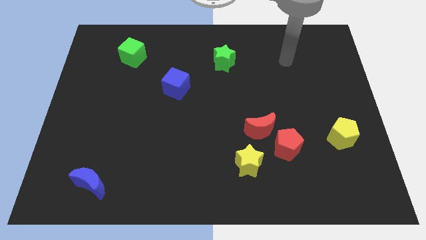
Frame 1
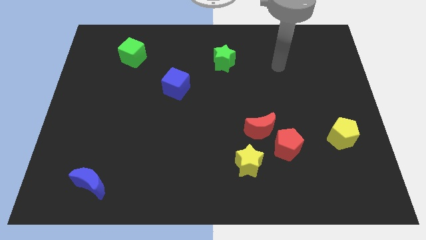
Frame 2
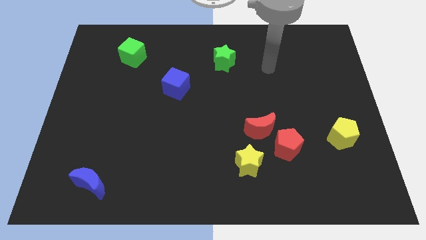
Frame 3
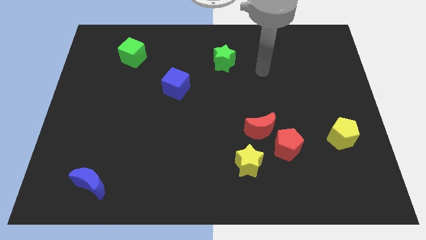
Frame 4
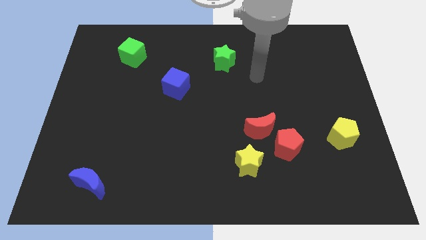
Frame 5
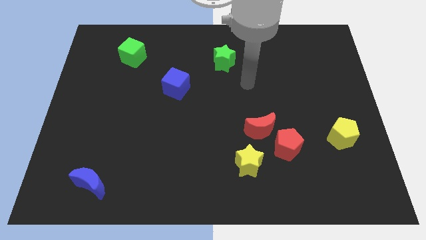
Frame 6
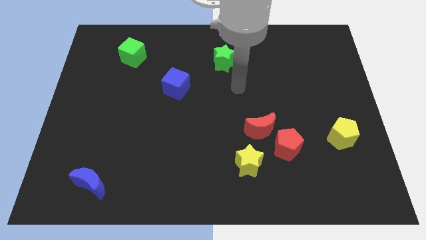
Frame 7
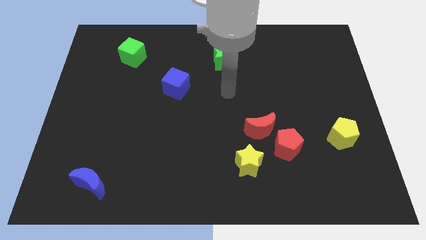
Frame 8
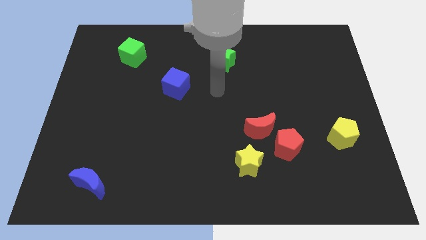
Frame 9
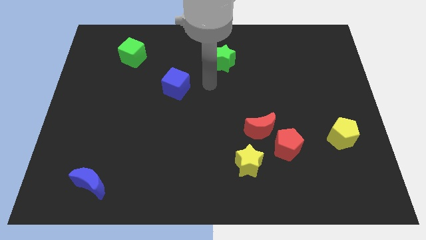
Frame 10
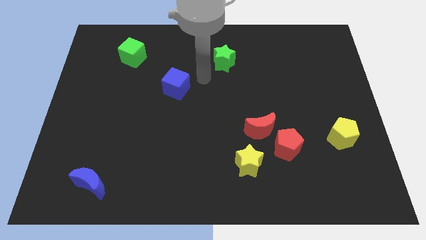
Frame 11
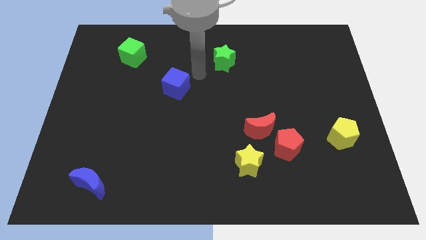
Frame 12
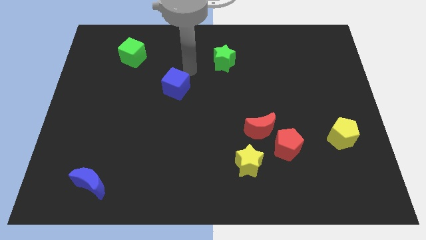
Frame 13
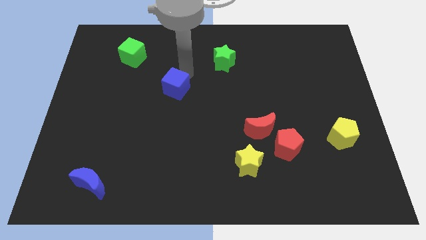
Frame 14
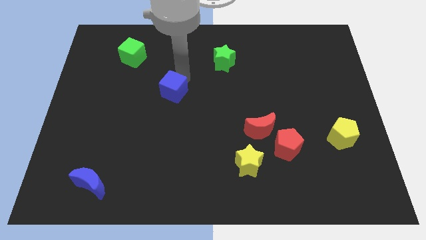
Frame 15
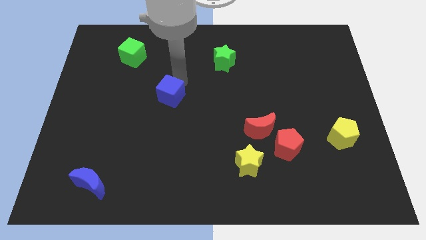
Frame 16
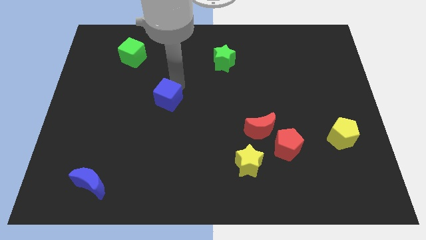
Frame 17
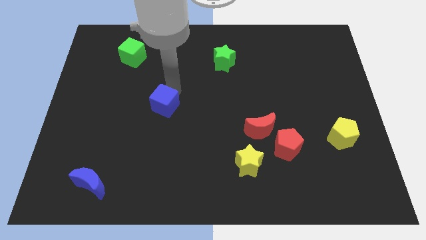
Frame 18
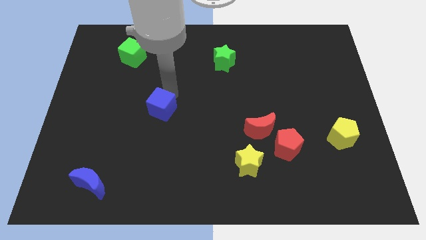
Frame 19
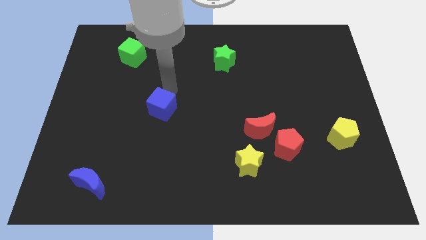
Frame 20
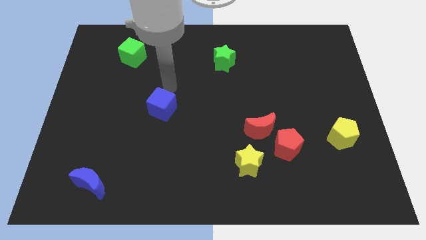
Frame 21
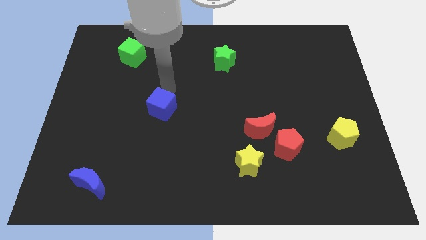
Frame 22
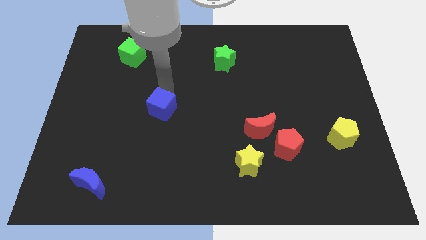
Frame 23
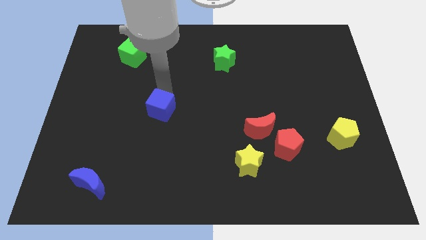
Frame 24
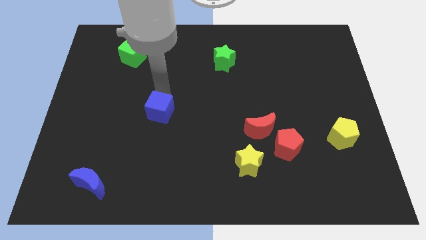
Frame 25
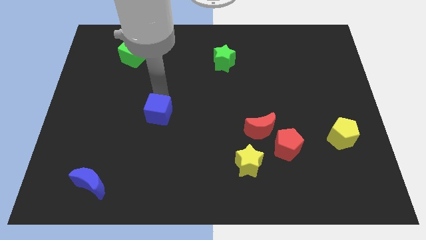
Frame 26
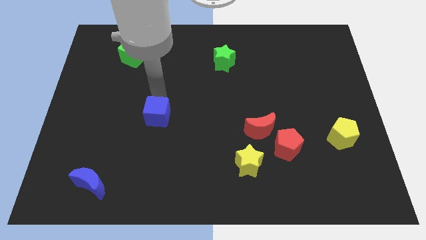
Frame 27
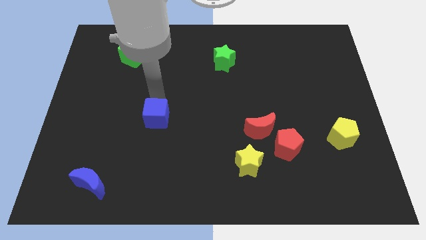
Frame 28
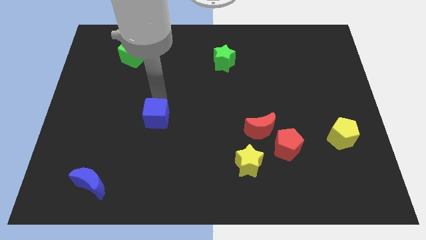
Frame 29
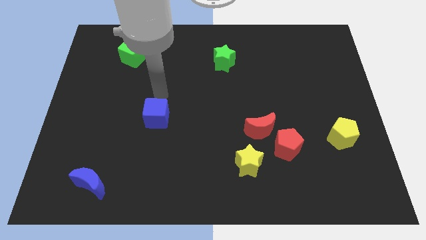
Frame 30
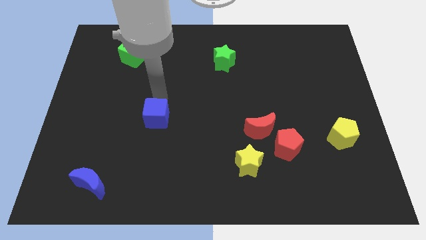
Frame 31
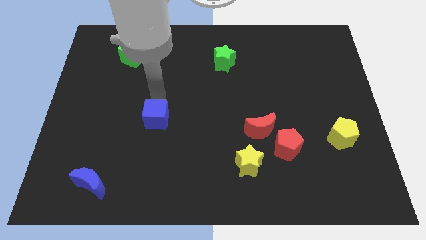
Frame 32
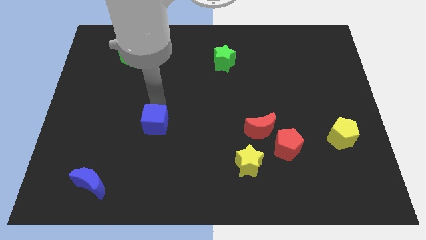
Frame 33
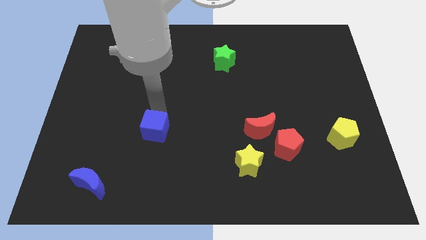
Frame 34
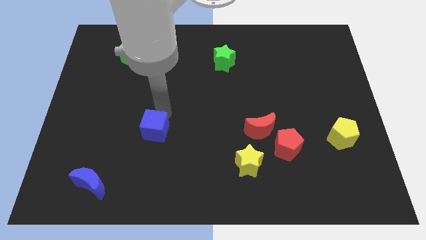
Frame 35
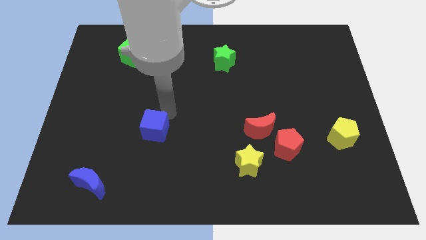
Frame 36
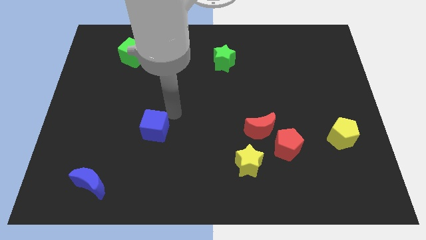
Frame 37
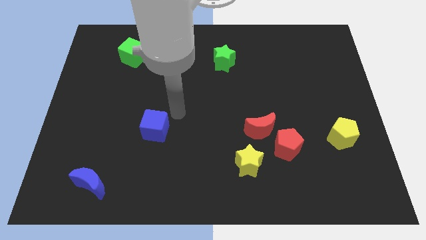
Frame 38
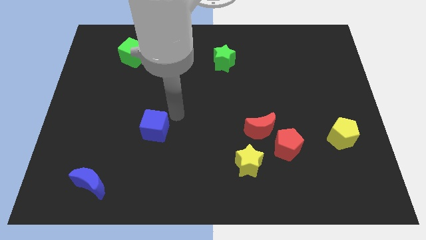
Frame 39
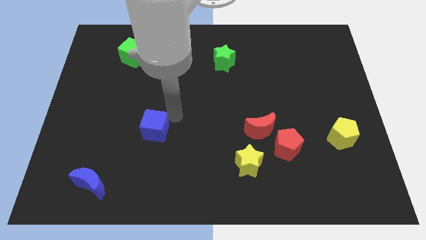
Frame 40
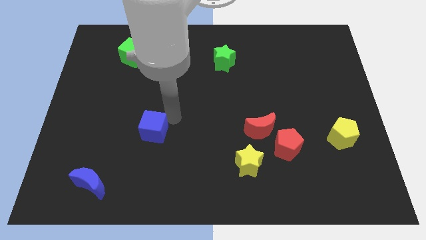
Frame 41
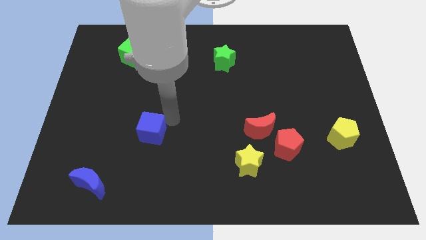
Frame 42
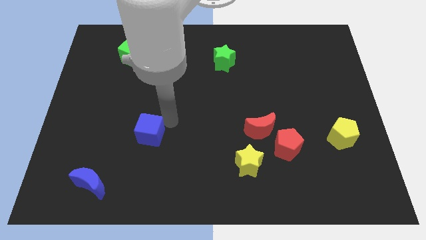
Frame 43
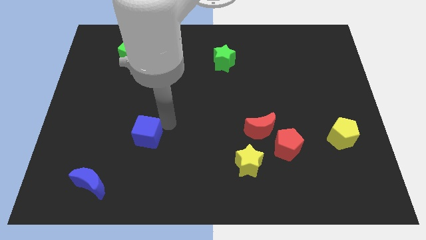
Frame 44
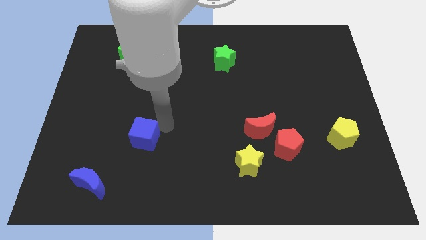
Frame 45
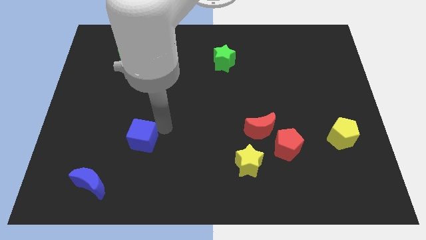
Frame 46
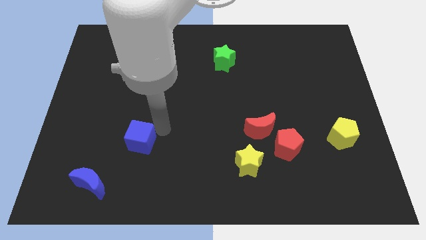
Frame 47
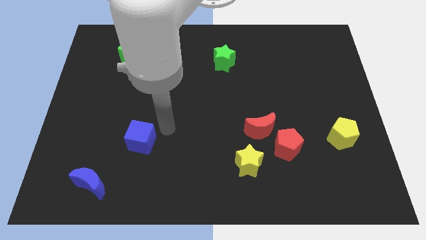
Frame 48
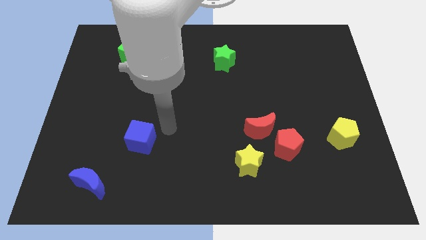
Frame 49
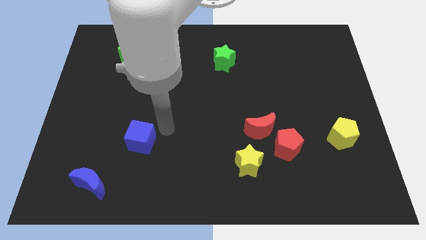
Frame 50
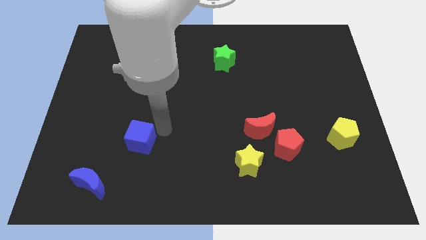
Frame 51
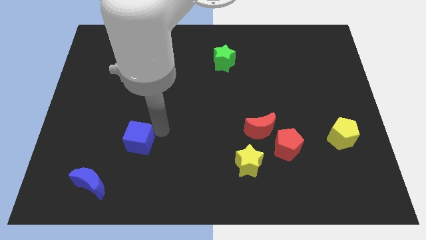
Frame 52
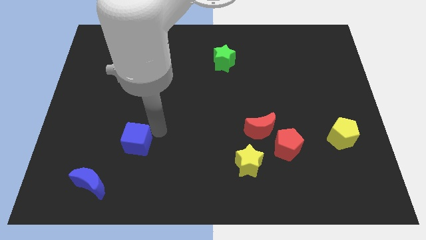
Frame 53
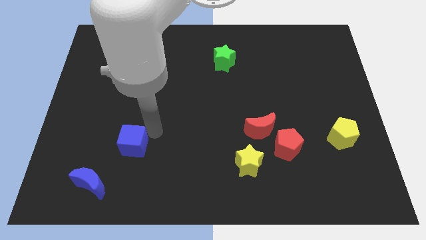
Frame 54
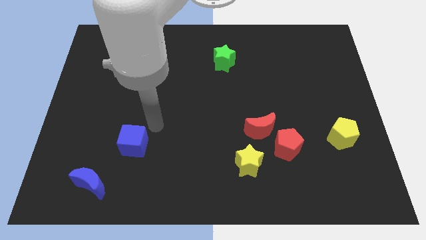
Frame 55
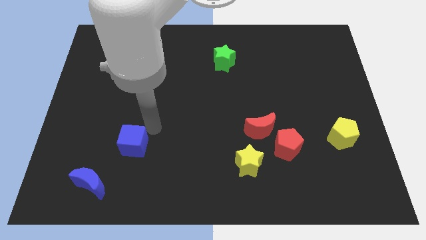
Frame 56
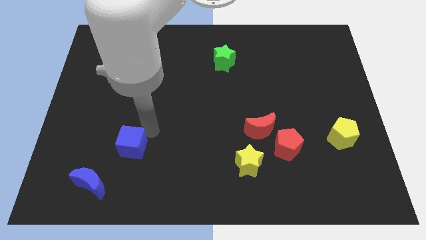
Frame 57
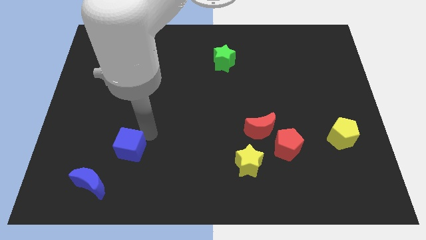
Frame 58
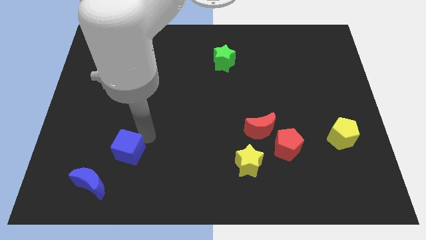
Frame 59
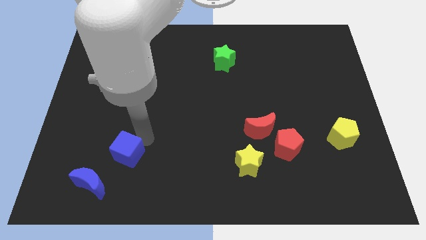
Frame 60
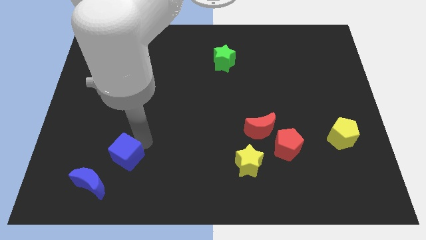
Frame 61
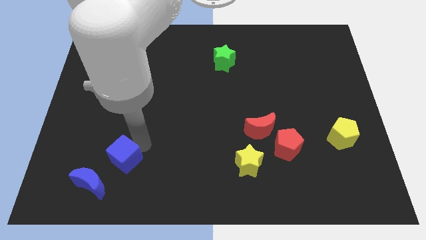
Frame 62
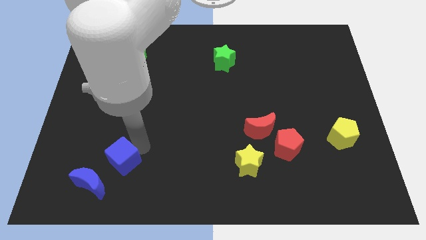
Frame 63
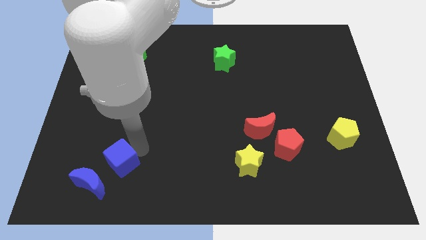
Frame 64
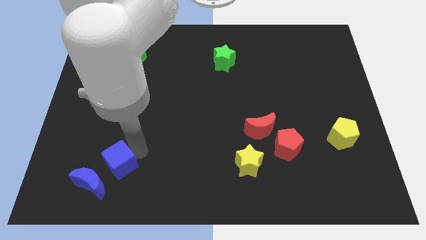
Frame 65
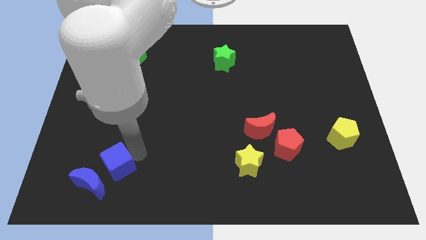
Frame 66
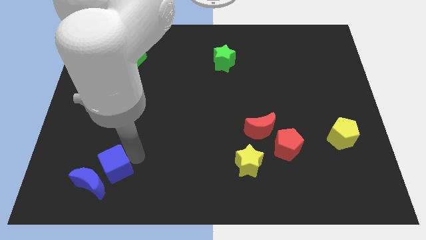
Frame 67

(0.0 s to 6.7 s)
push the blue cube close to the blue moon

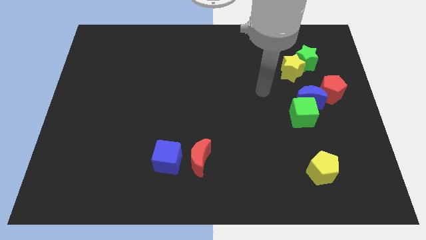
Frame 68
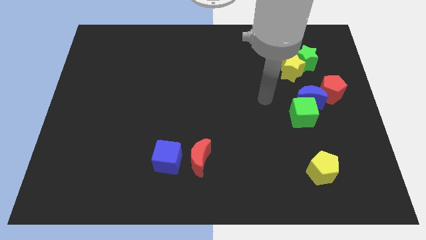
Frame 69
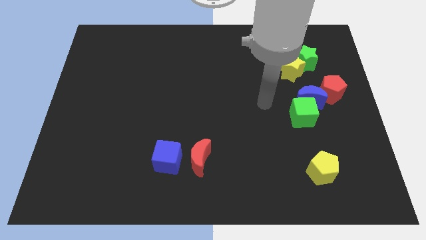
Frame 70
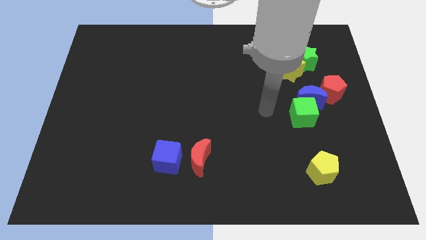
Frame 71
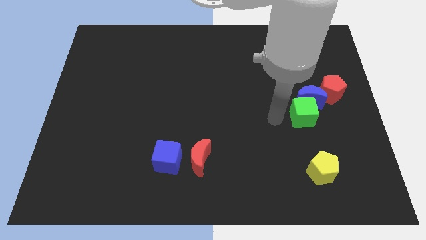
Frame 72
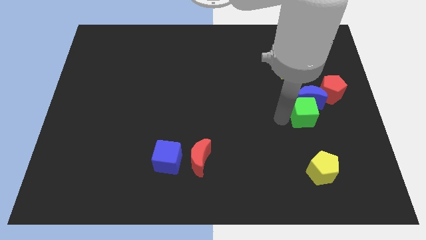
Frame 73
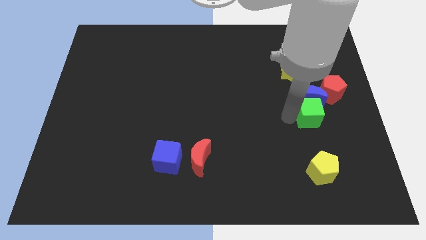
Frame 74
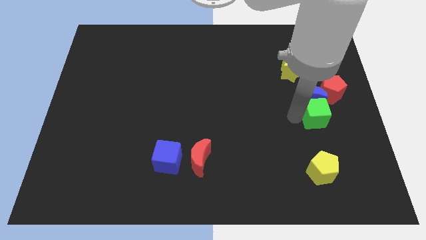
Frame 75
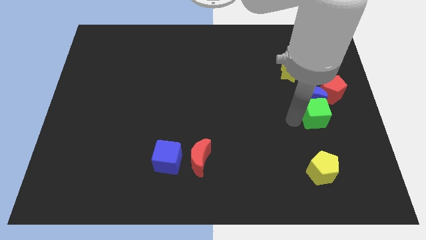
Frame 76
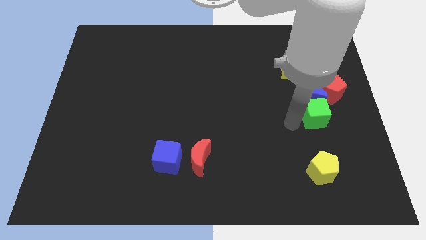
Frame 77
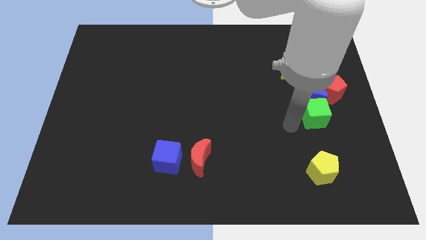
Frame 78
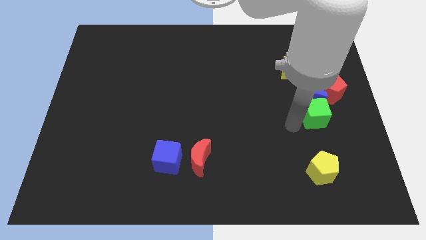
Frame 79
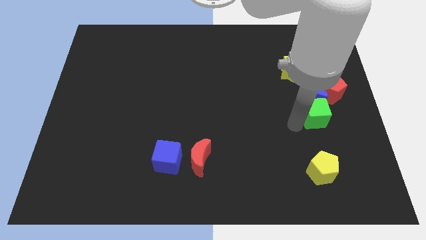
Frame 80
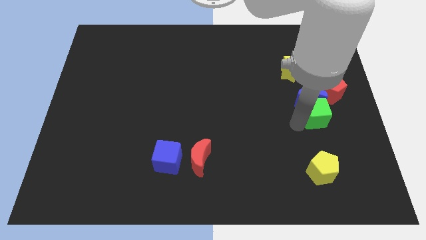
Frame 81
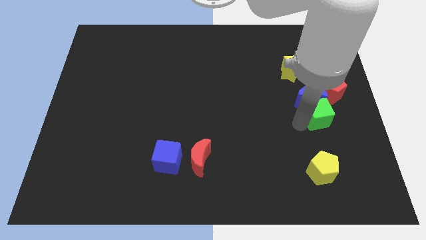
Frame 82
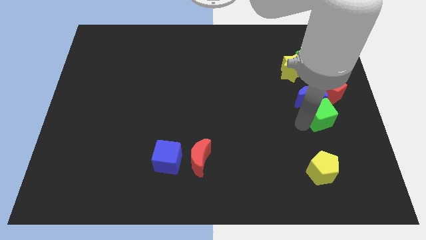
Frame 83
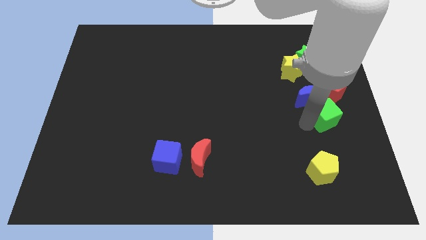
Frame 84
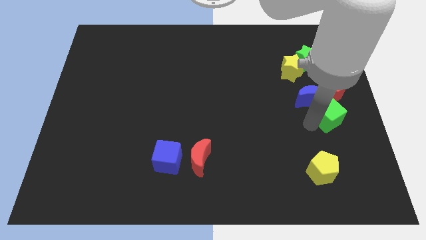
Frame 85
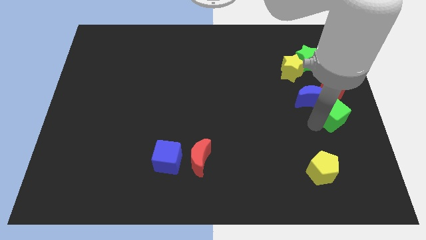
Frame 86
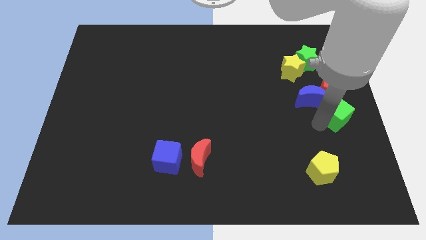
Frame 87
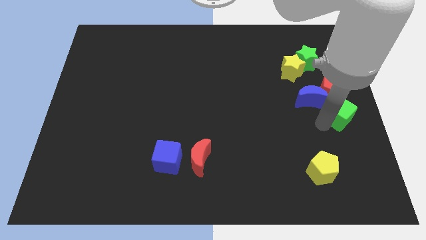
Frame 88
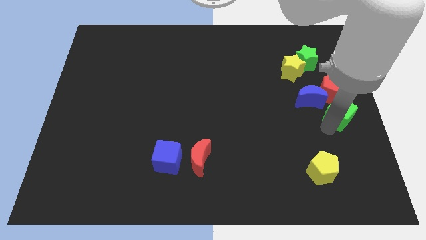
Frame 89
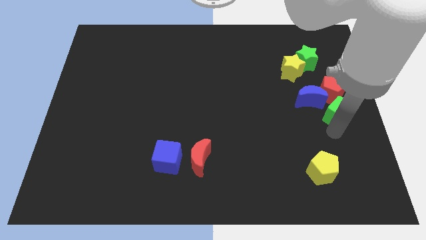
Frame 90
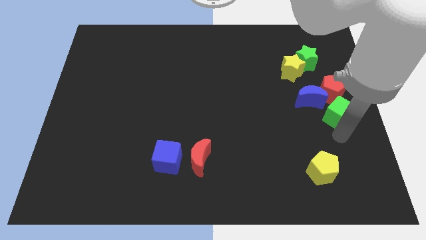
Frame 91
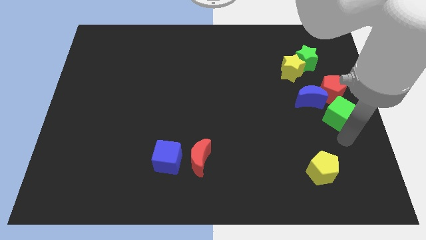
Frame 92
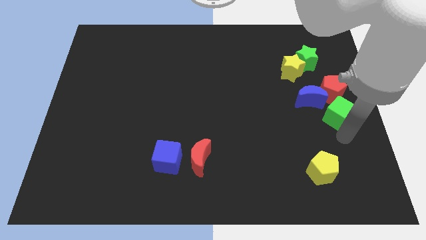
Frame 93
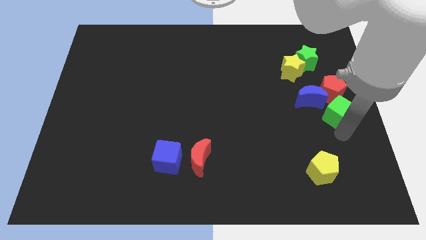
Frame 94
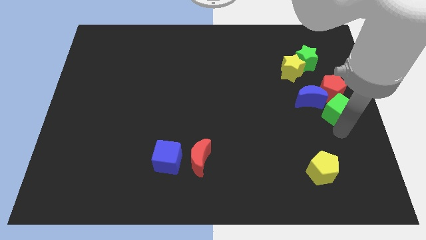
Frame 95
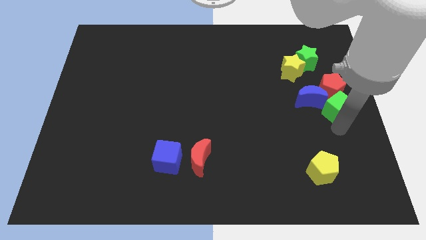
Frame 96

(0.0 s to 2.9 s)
move the green cube close to the red pentagon
